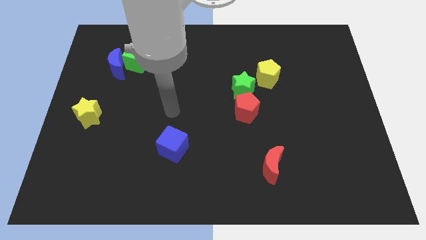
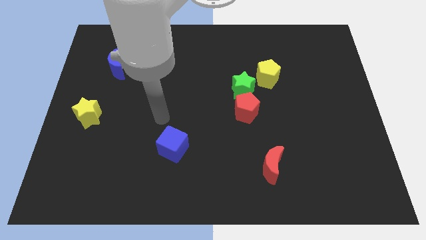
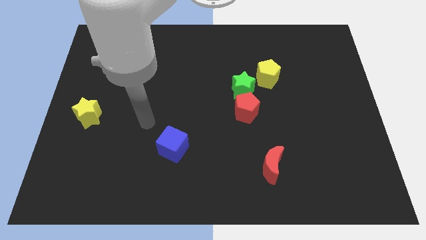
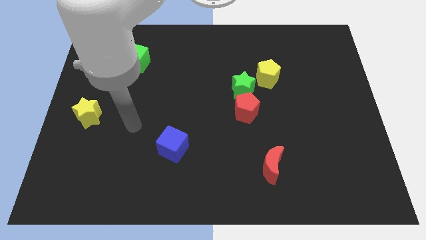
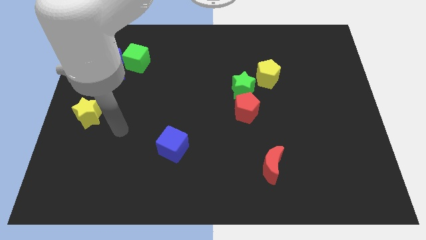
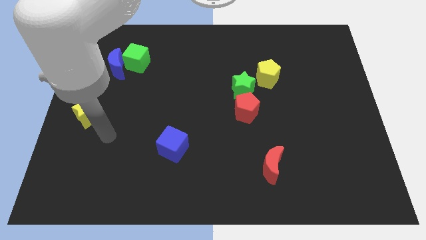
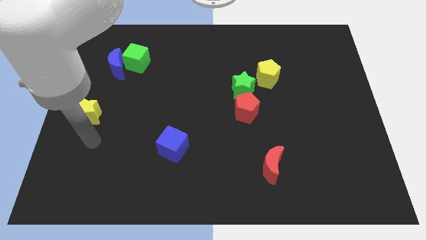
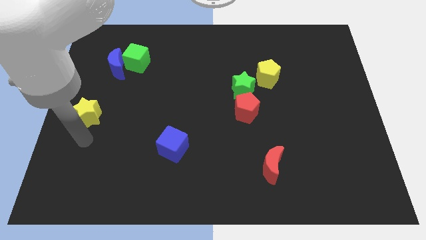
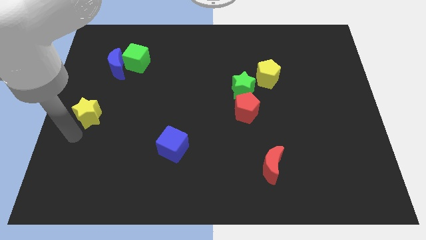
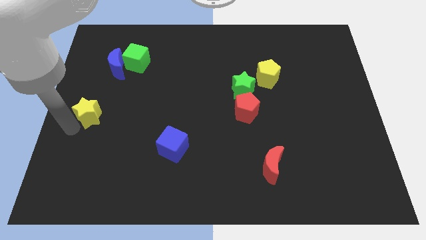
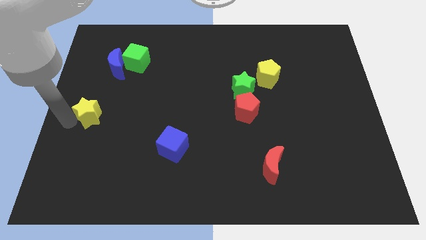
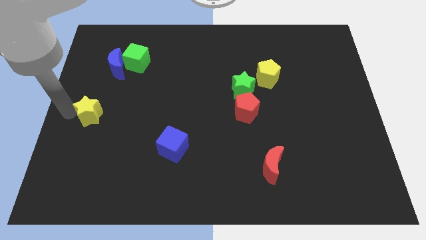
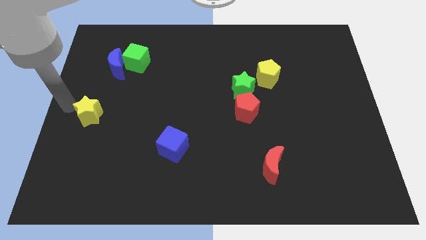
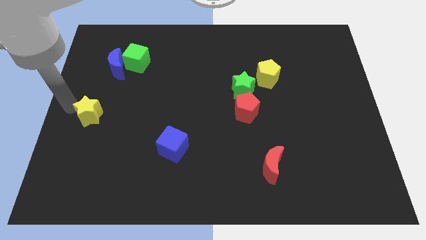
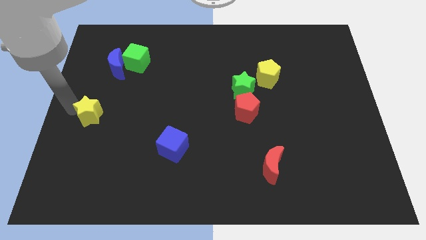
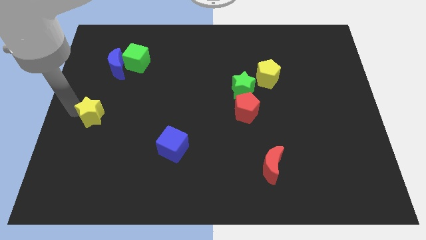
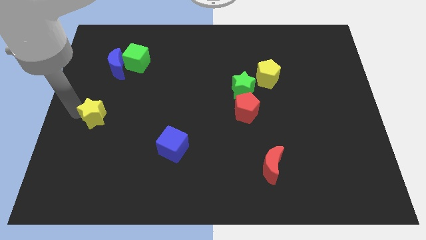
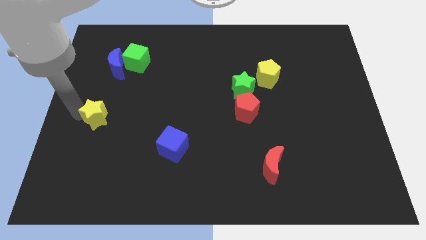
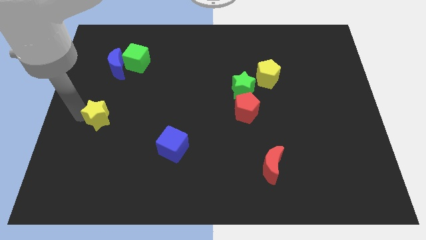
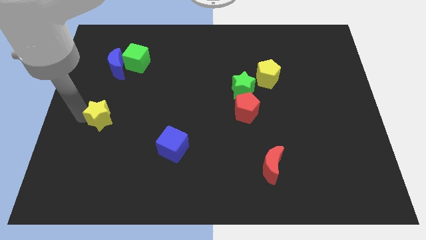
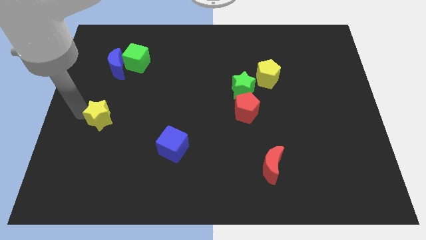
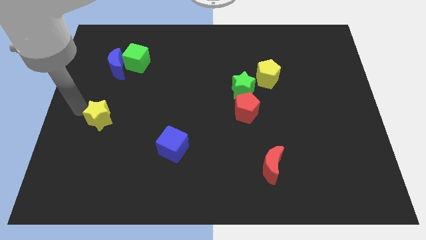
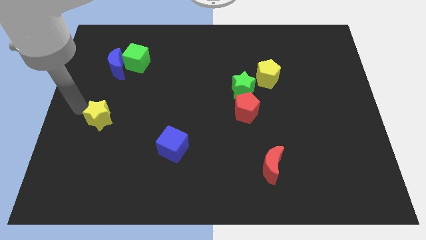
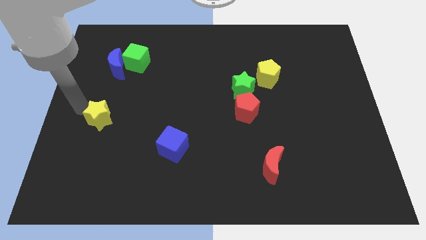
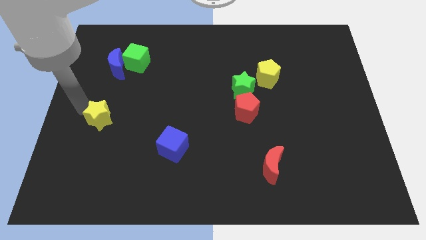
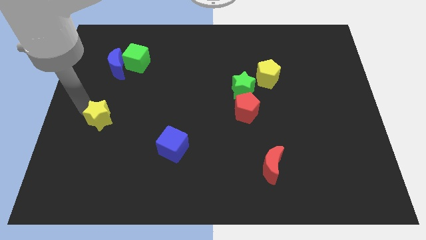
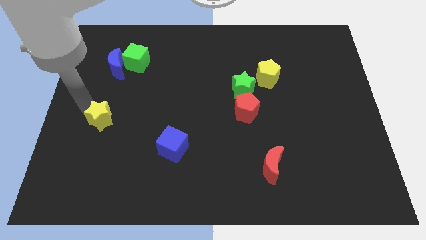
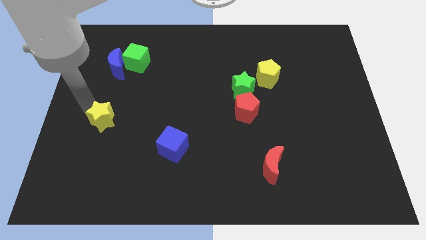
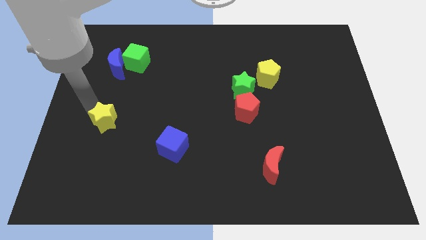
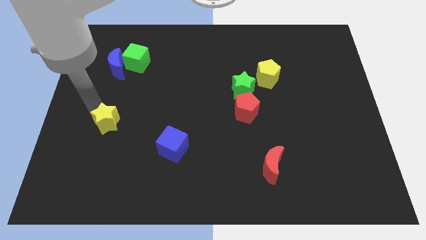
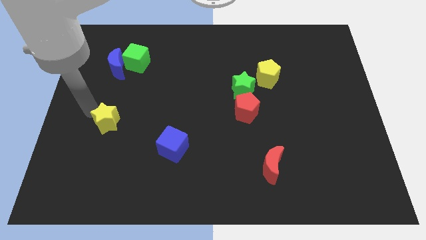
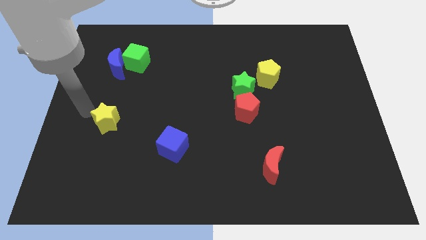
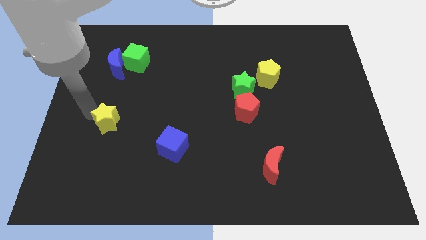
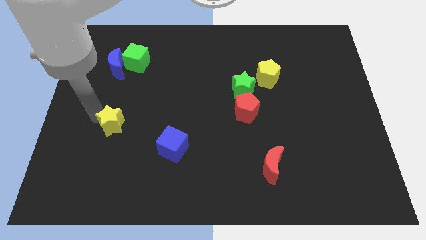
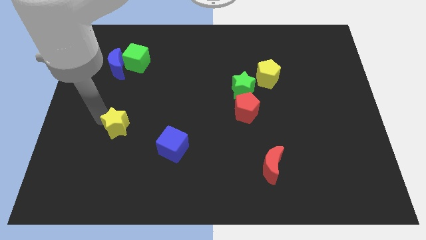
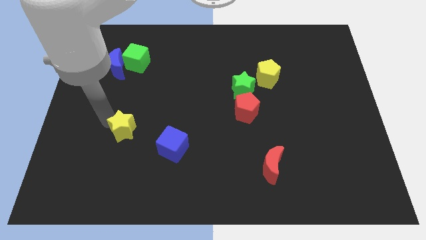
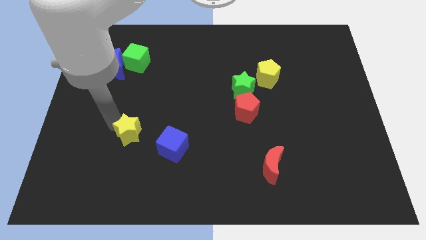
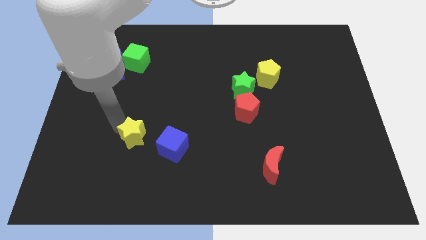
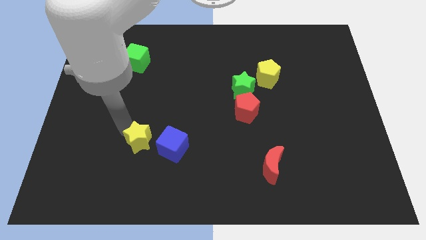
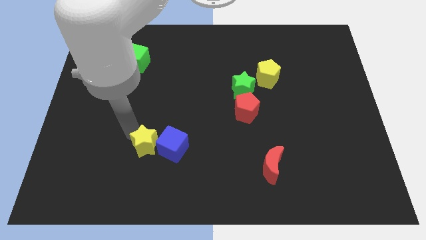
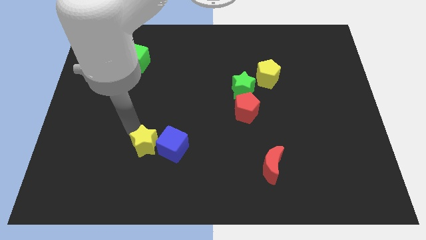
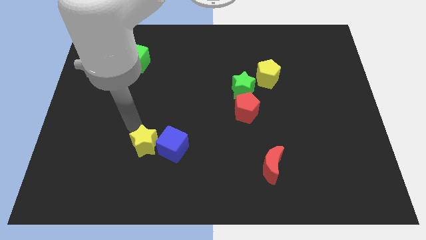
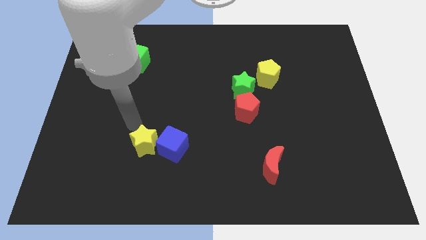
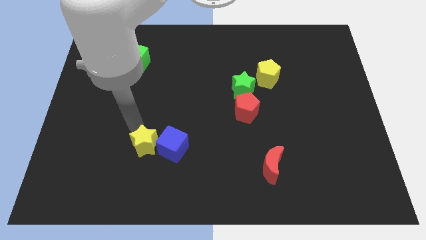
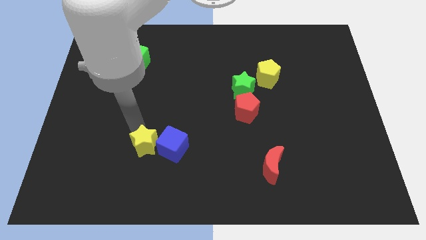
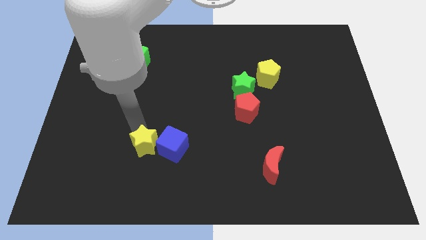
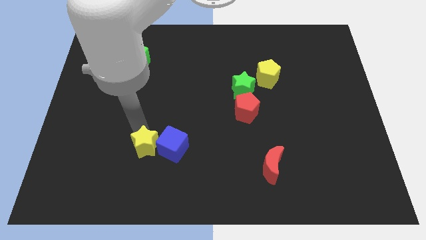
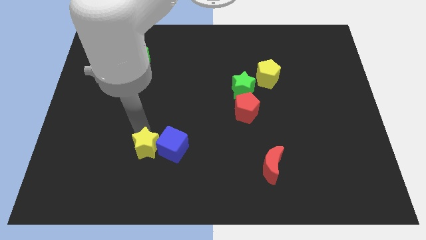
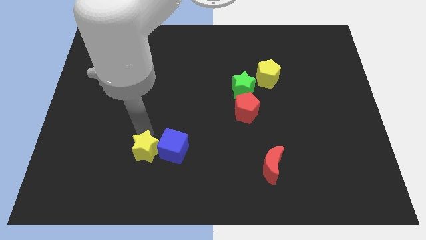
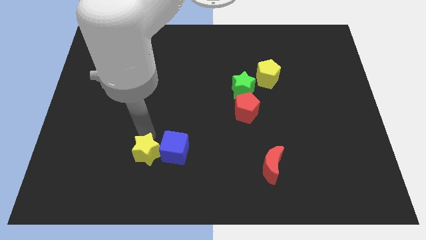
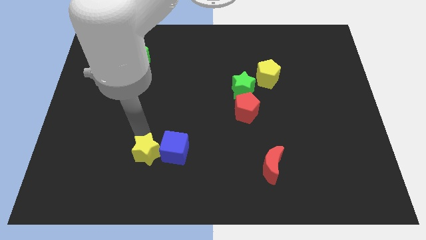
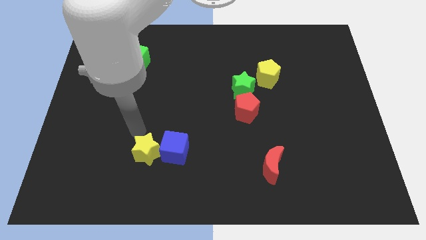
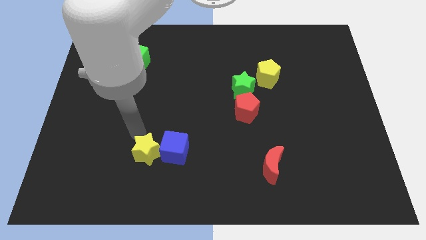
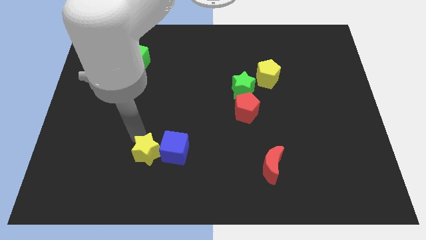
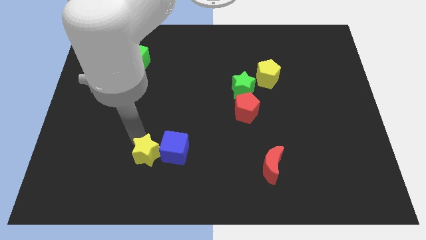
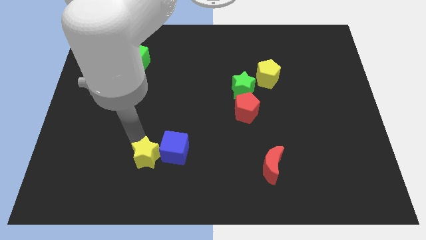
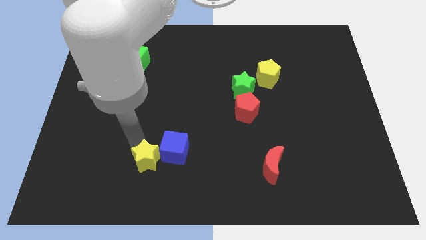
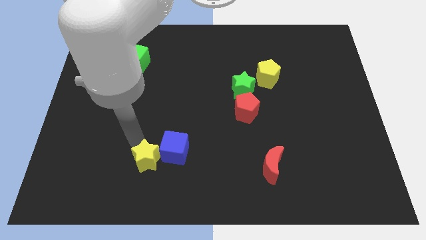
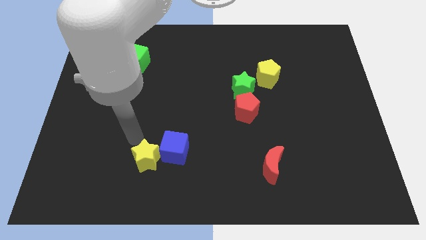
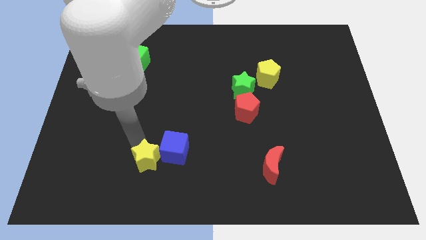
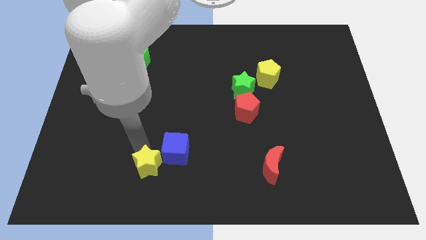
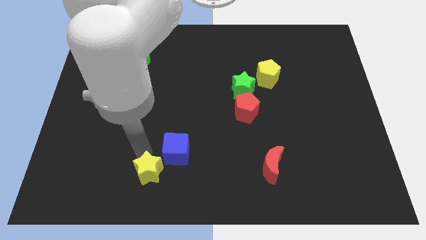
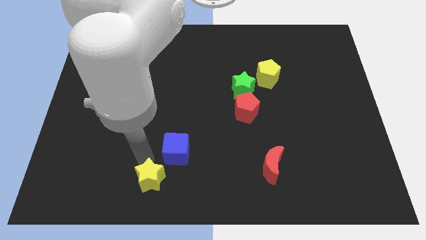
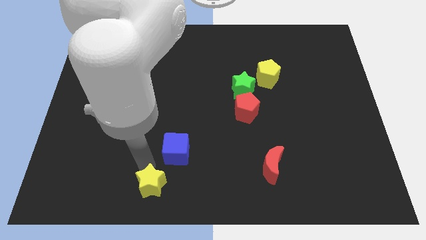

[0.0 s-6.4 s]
put the yellow star to the bottom side

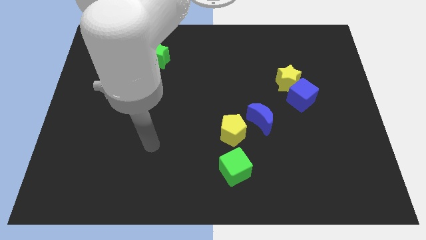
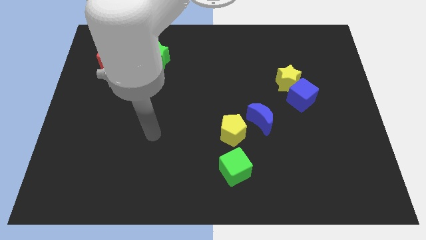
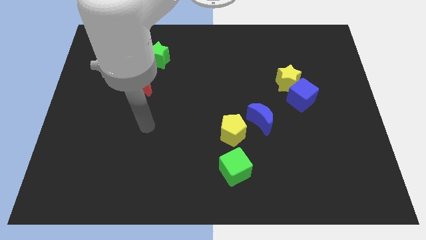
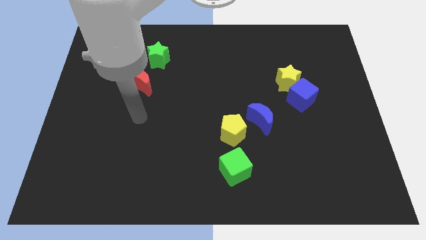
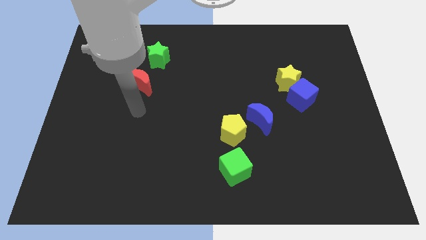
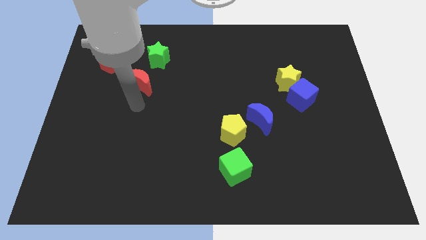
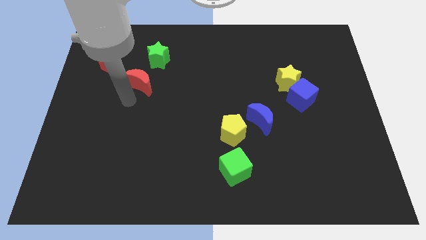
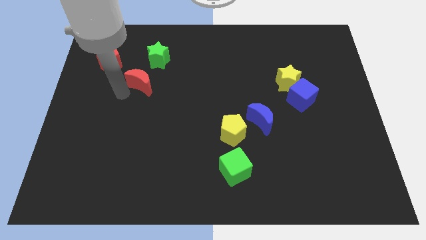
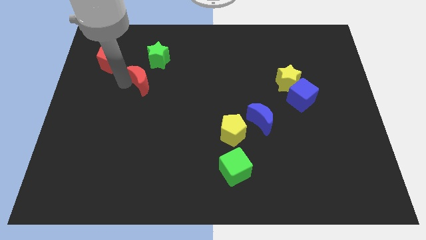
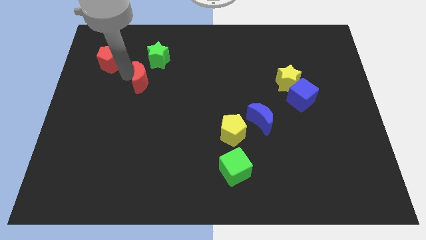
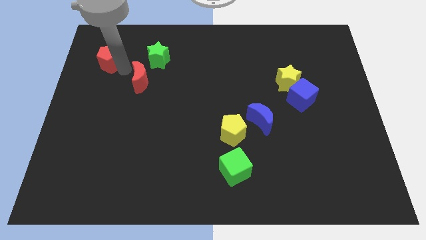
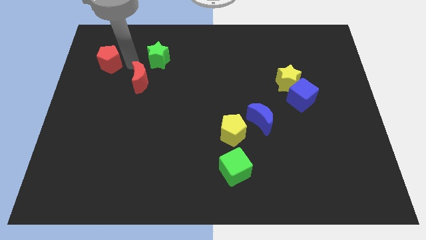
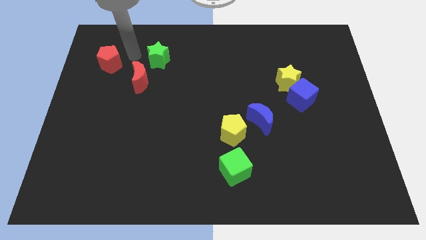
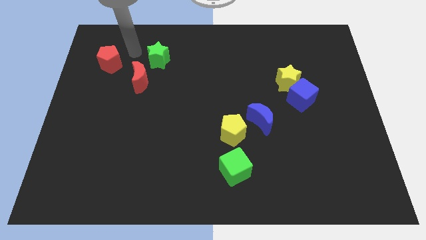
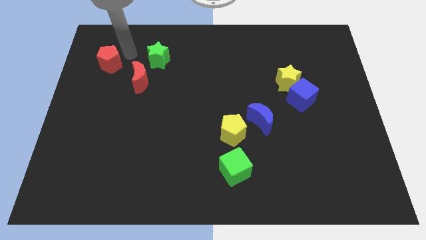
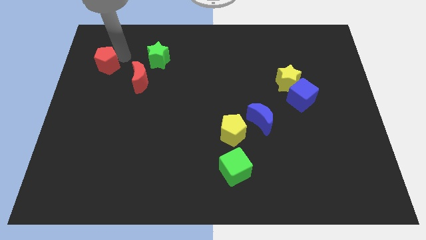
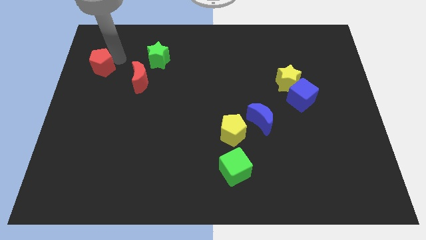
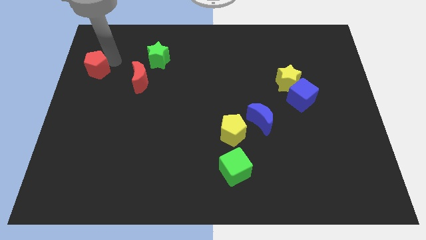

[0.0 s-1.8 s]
slide the red pentagon to the left side of the board

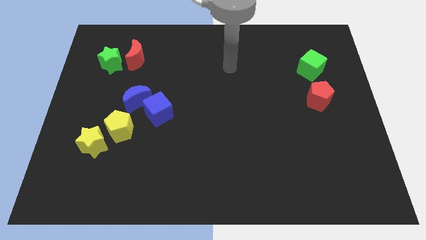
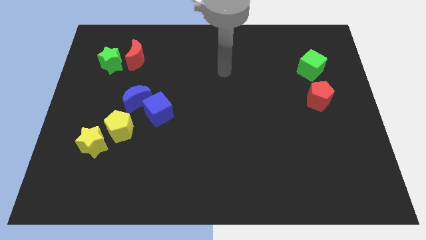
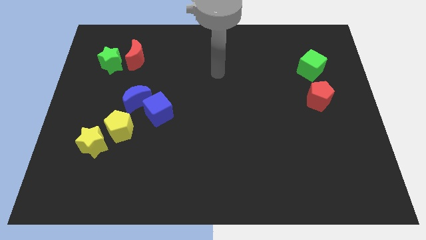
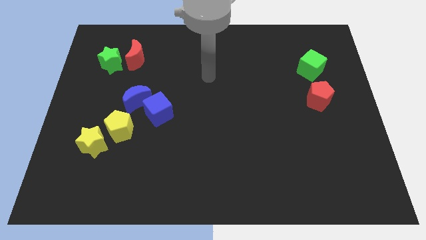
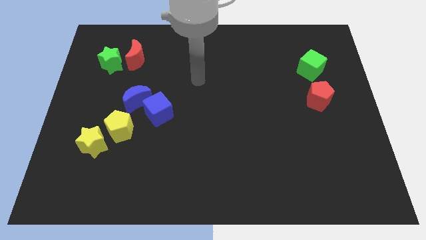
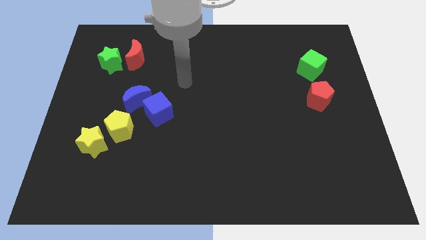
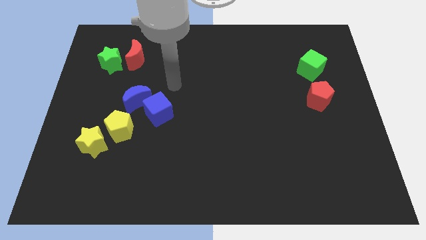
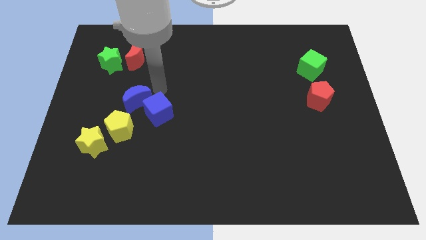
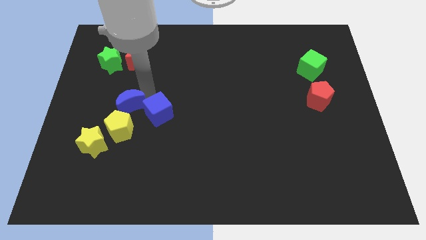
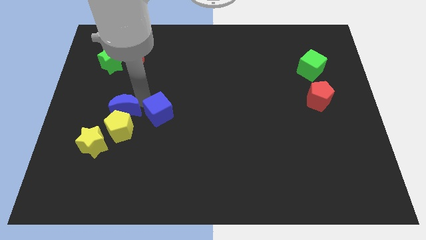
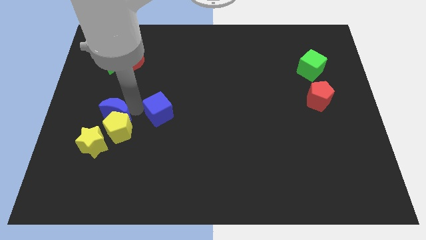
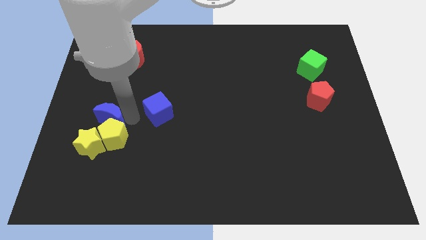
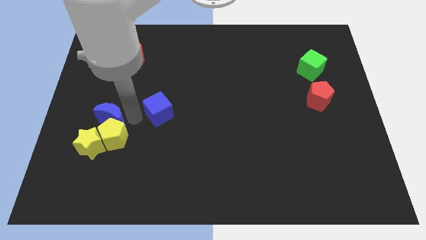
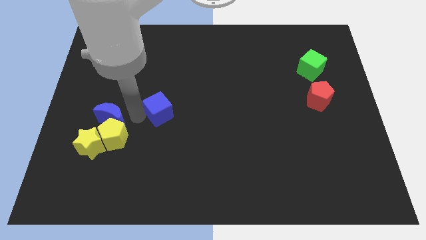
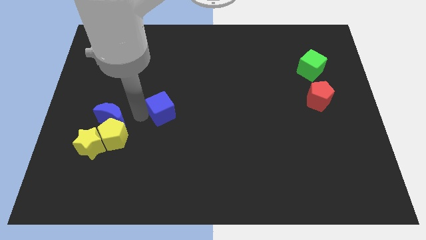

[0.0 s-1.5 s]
put the blue cube to the center
